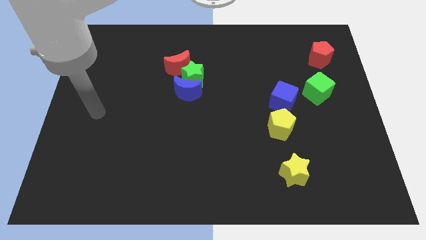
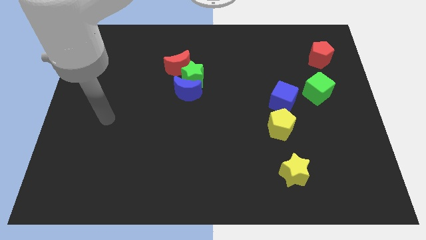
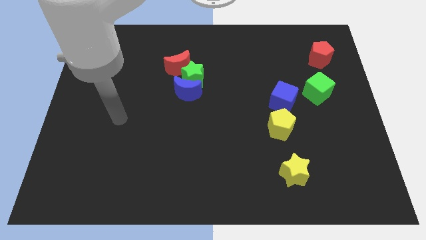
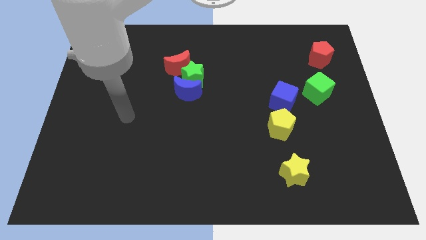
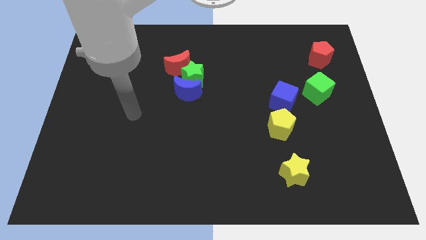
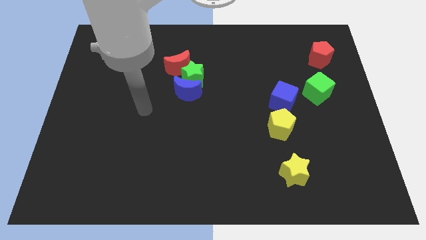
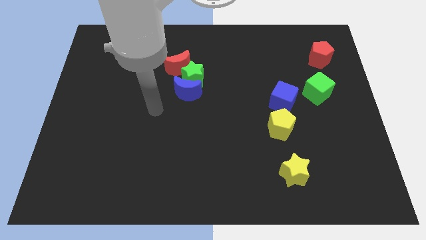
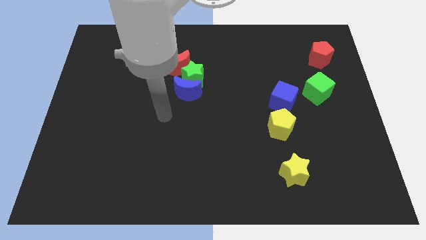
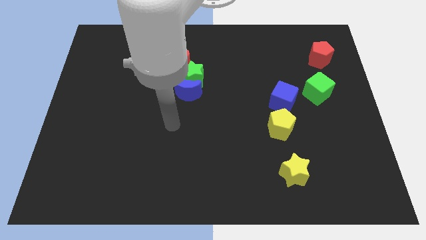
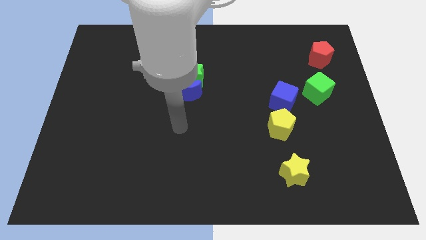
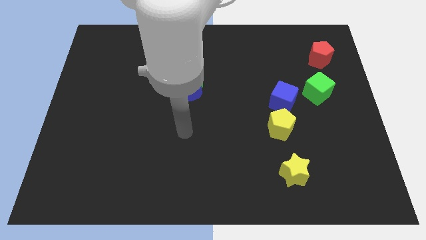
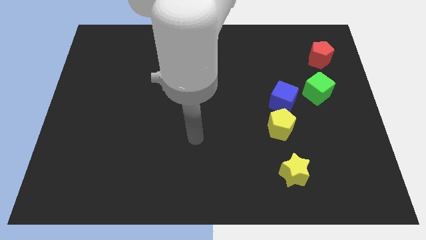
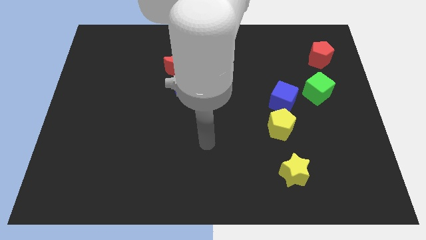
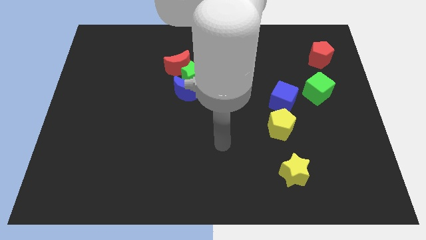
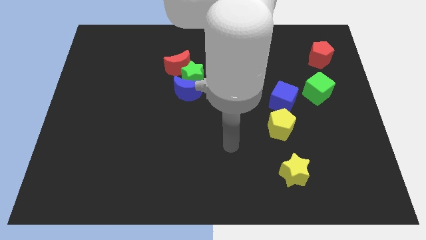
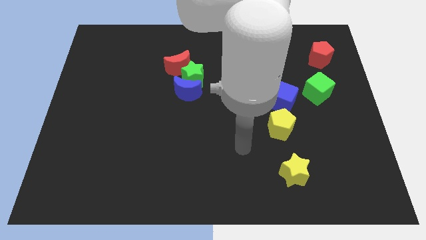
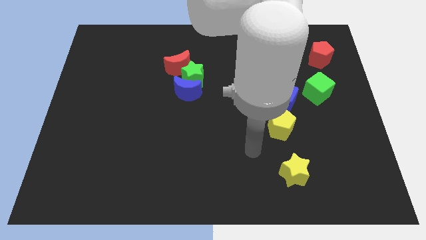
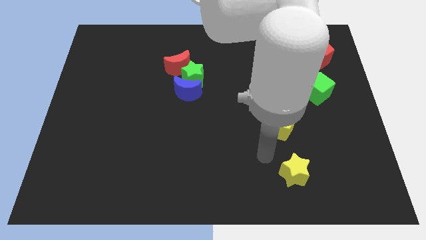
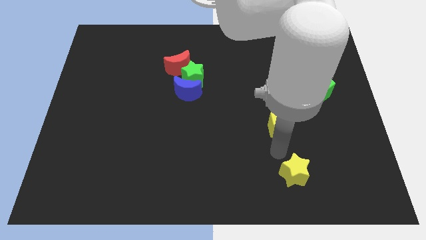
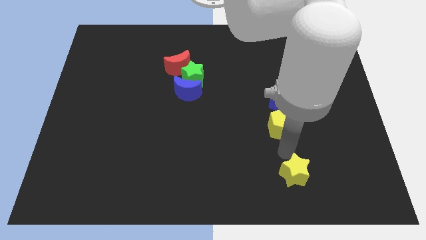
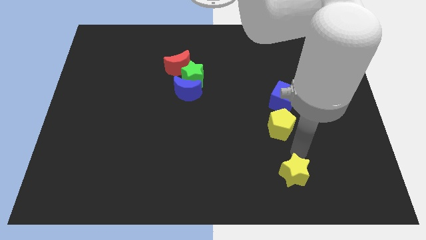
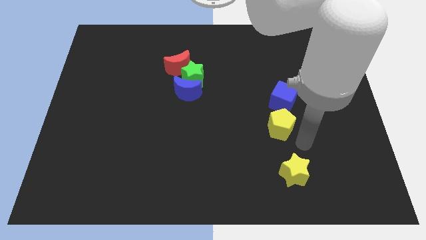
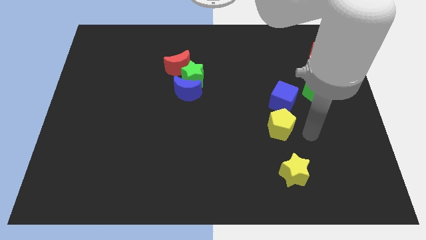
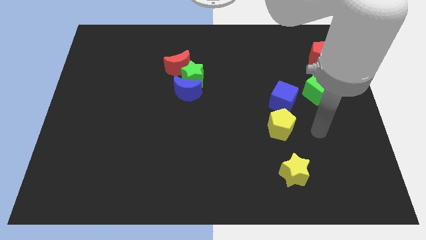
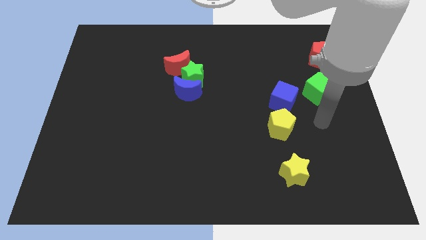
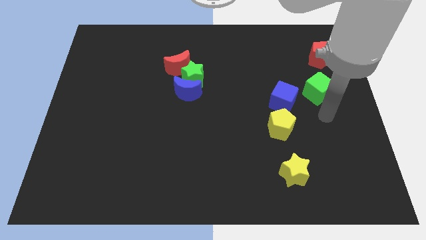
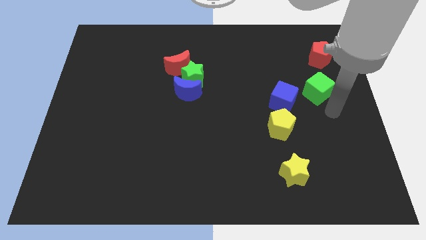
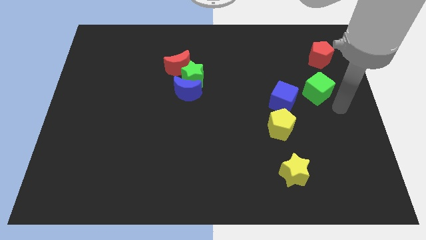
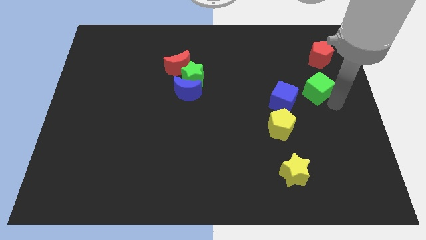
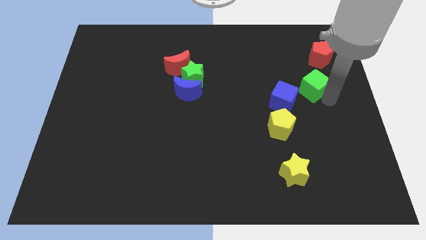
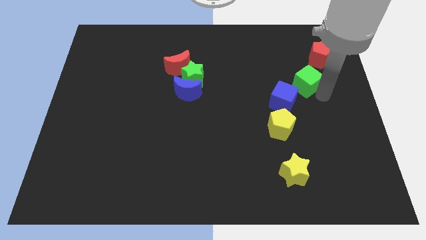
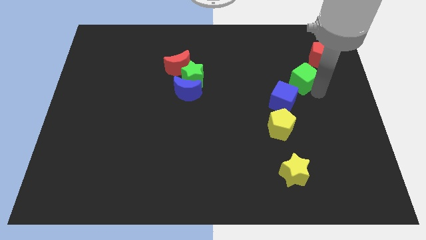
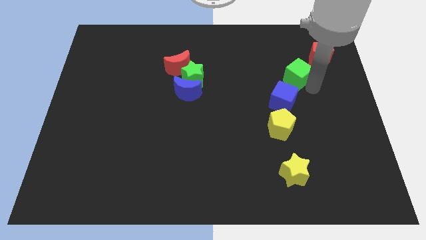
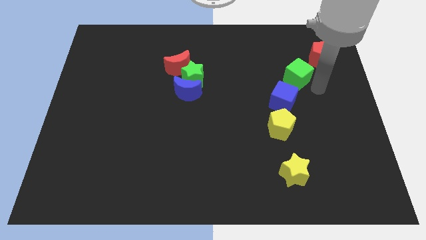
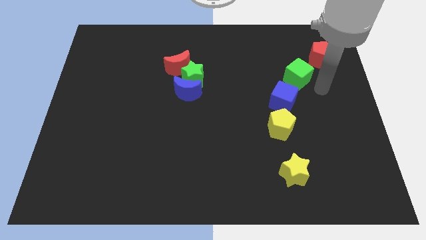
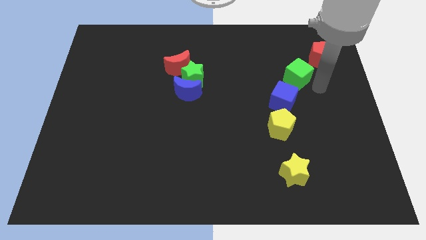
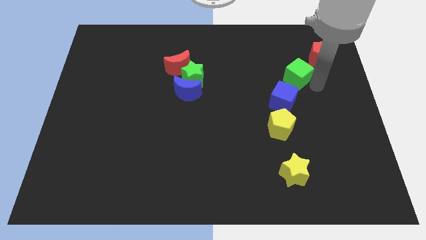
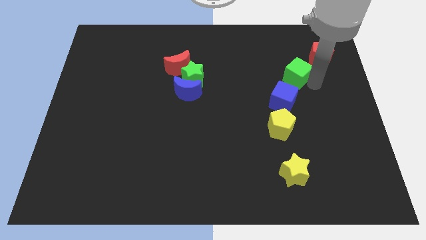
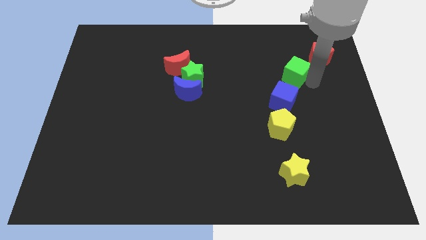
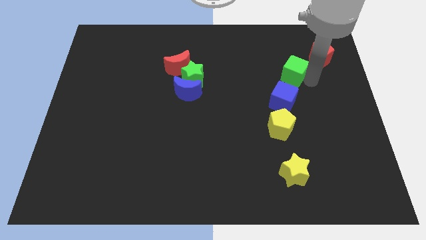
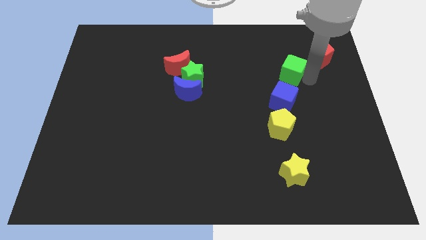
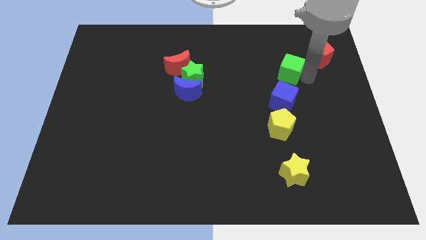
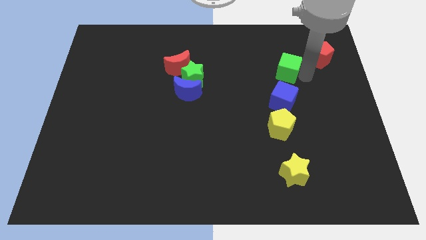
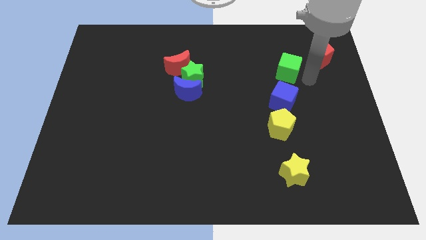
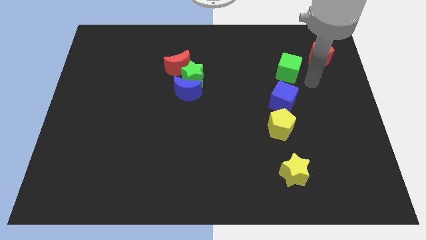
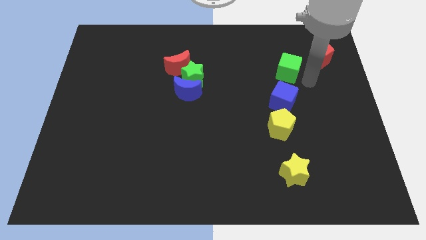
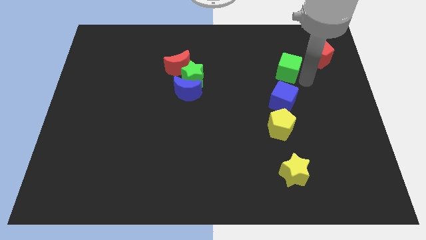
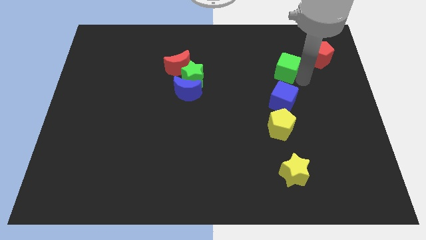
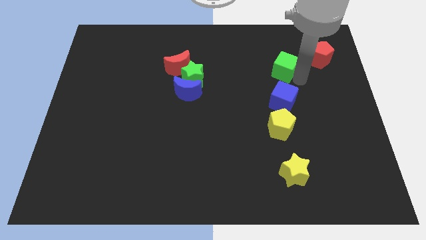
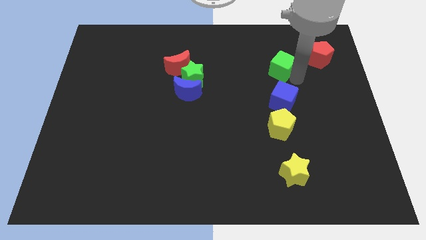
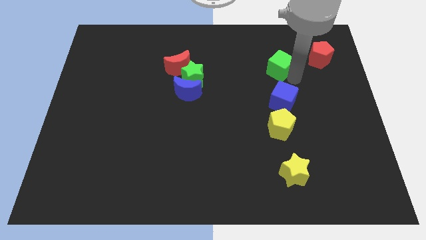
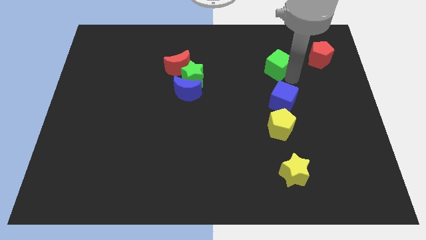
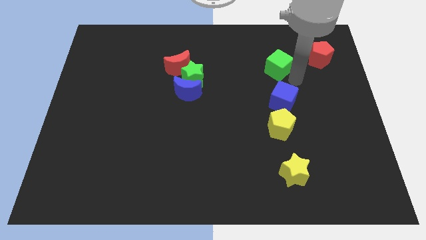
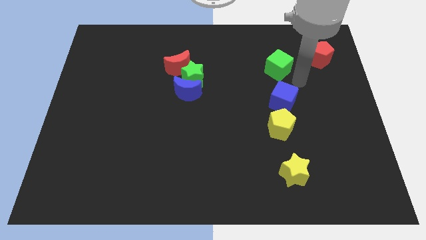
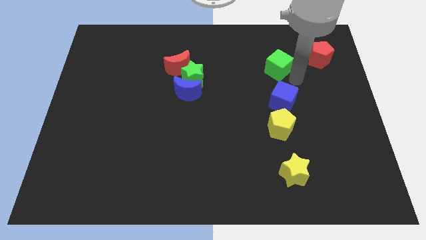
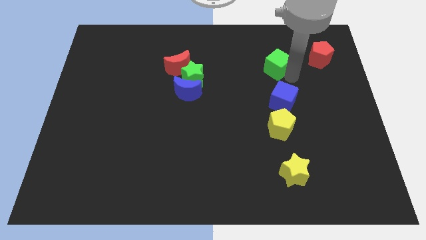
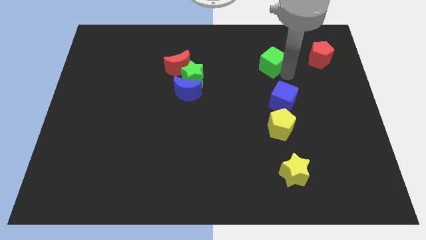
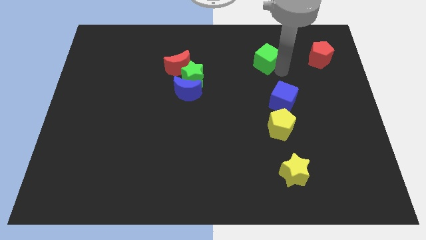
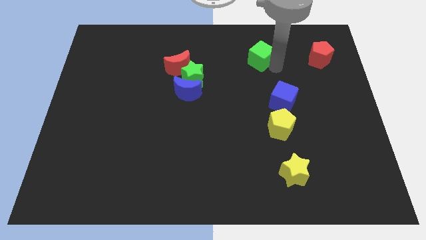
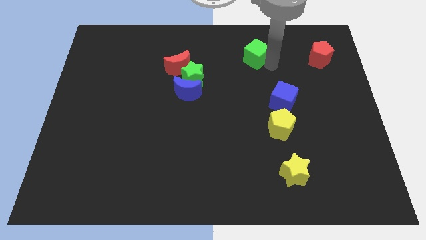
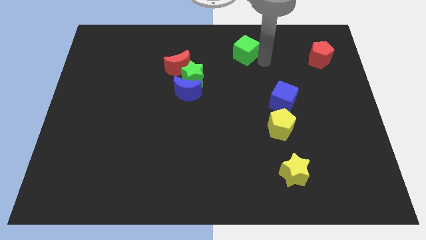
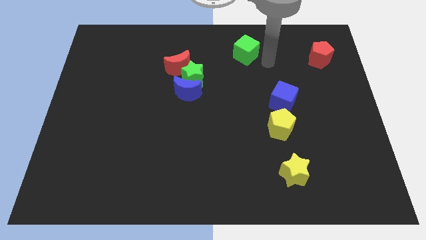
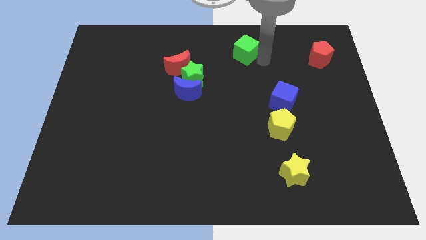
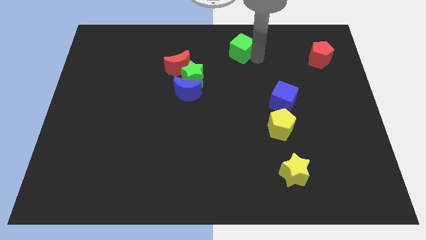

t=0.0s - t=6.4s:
put the green cube to the towards your base
